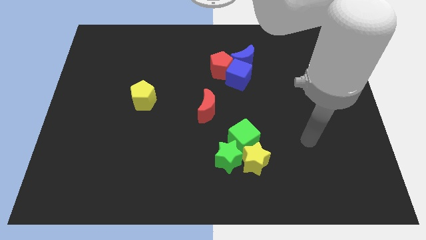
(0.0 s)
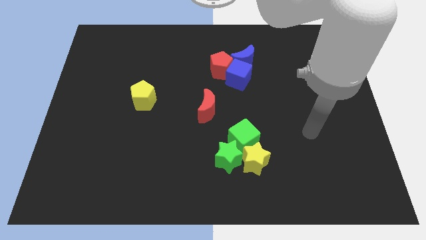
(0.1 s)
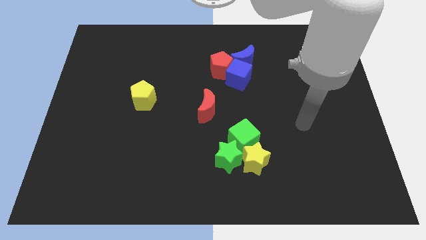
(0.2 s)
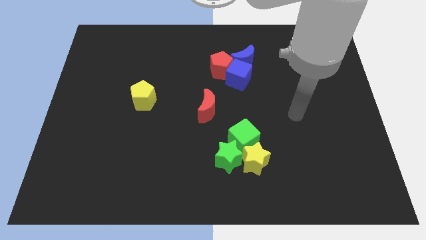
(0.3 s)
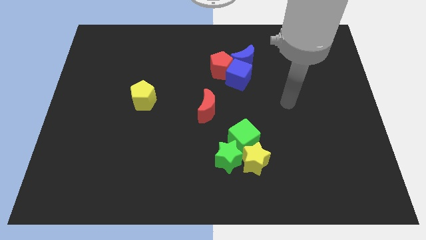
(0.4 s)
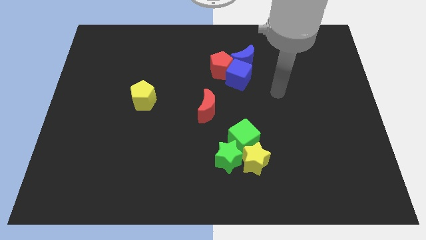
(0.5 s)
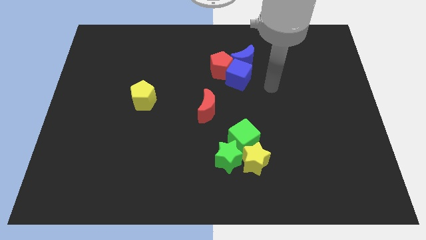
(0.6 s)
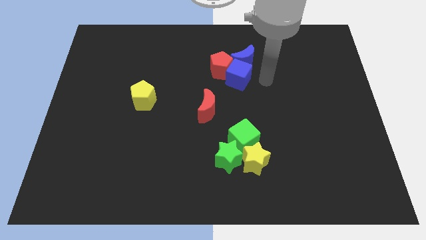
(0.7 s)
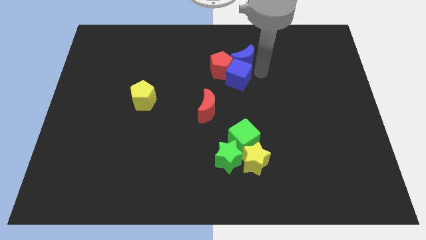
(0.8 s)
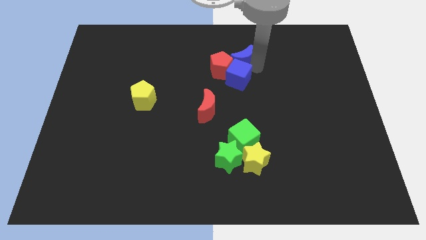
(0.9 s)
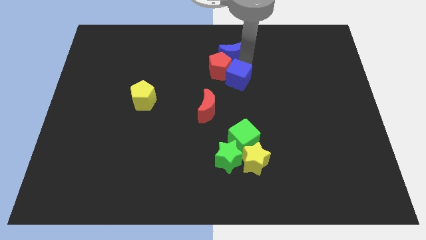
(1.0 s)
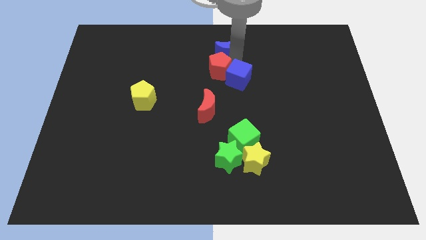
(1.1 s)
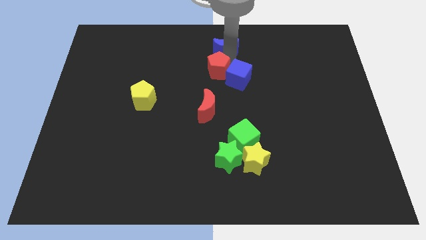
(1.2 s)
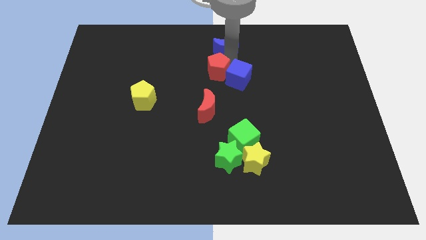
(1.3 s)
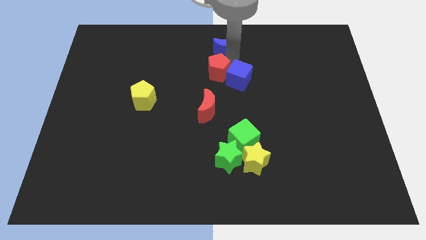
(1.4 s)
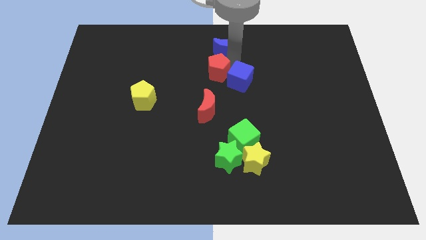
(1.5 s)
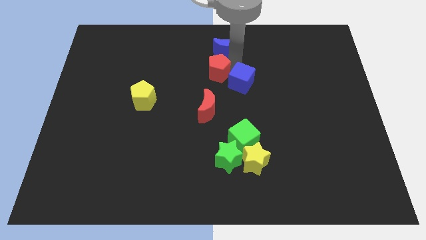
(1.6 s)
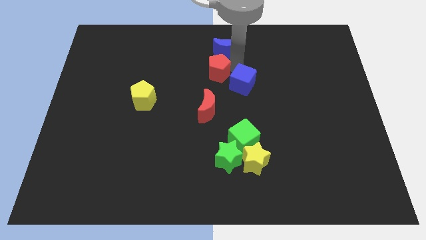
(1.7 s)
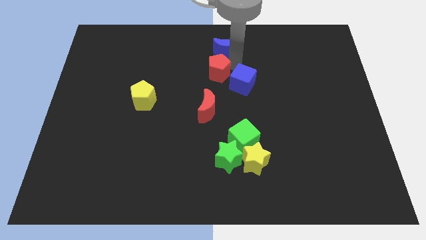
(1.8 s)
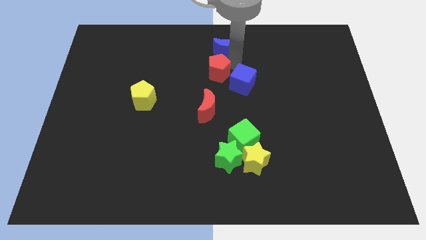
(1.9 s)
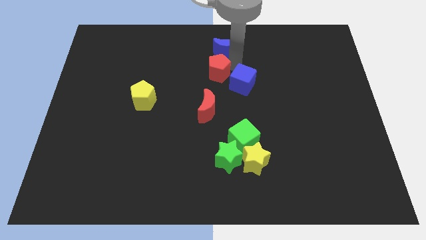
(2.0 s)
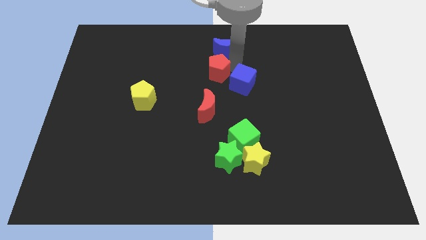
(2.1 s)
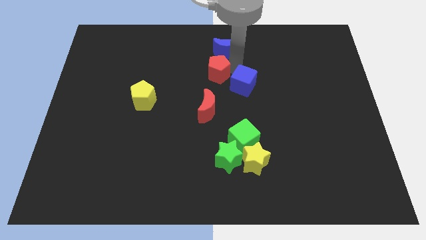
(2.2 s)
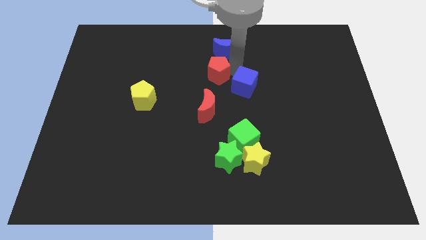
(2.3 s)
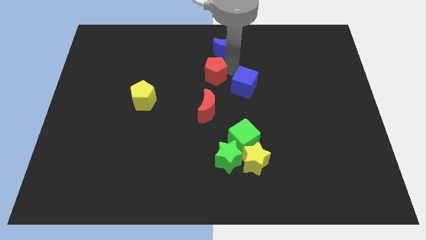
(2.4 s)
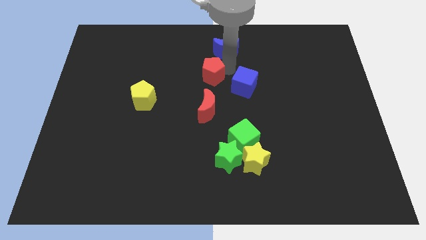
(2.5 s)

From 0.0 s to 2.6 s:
pull the blue cube apart from the red pentagon and blue moon

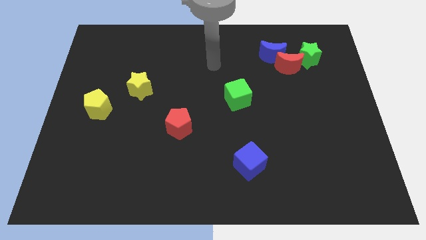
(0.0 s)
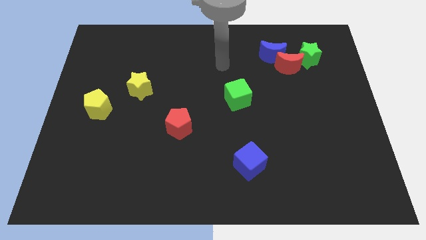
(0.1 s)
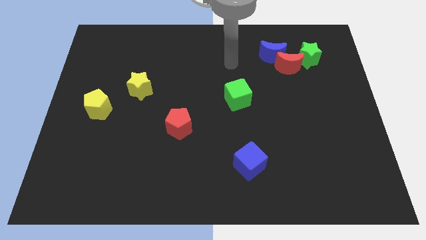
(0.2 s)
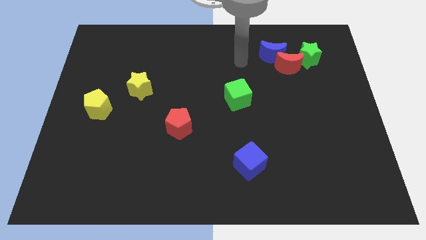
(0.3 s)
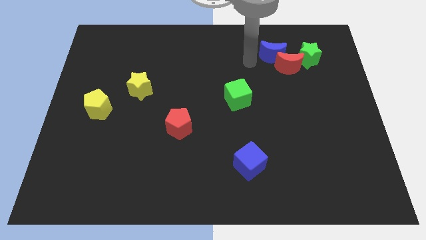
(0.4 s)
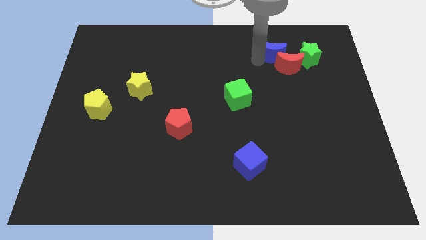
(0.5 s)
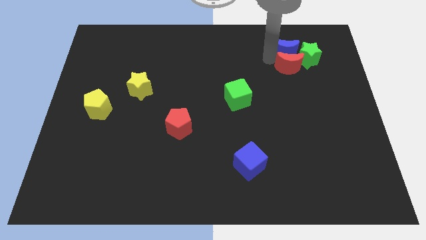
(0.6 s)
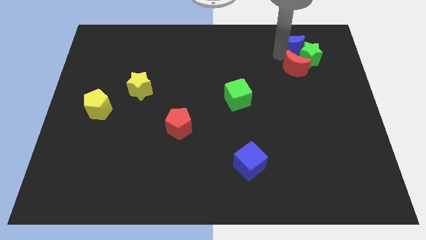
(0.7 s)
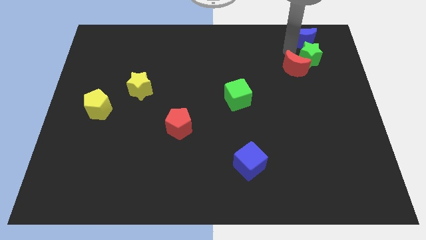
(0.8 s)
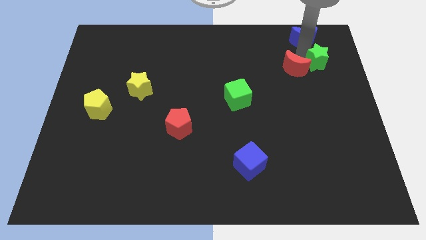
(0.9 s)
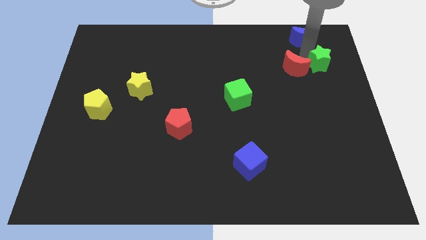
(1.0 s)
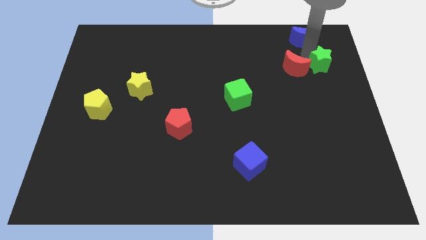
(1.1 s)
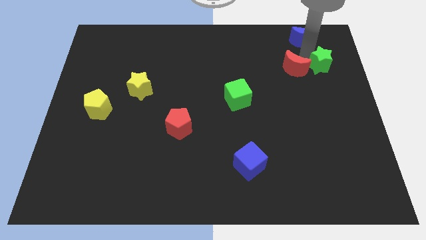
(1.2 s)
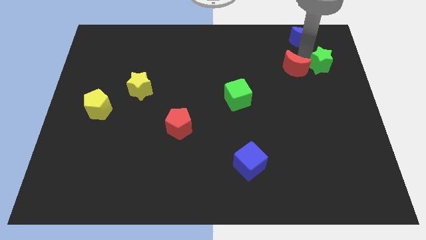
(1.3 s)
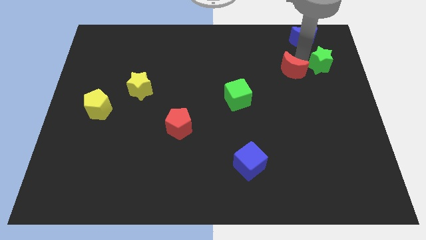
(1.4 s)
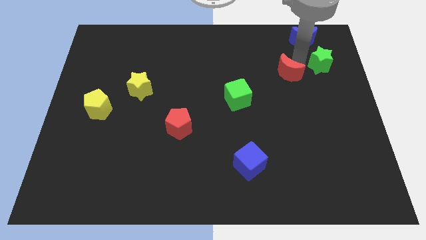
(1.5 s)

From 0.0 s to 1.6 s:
separate the red moon from the blue moon and green star

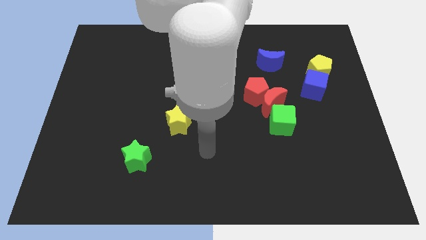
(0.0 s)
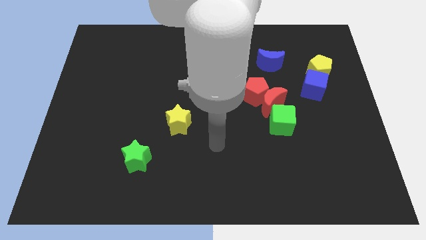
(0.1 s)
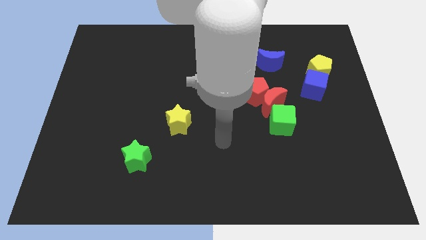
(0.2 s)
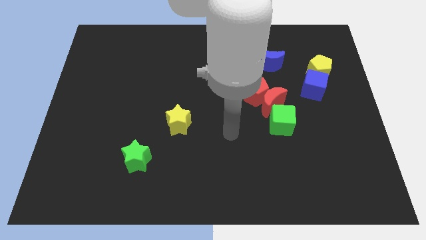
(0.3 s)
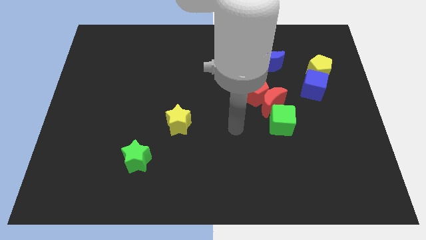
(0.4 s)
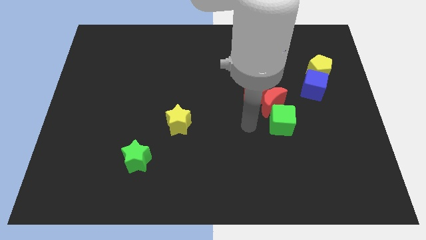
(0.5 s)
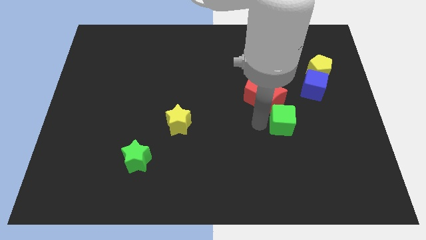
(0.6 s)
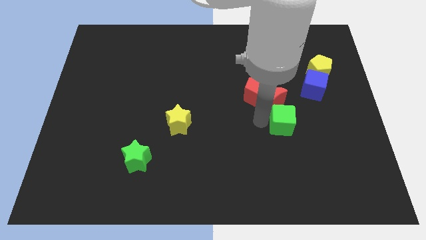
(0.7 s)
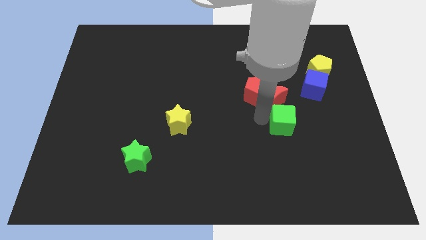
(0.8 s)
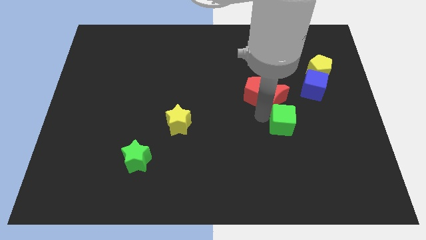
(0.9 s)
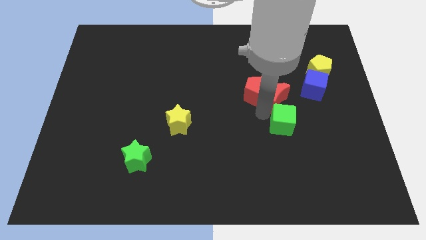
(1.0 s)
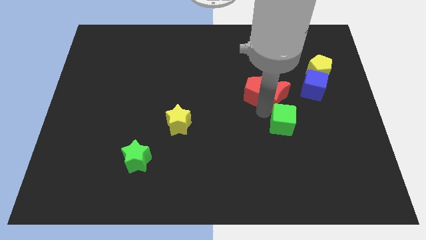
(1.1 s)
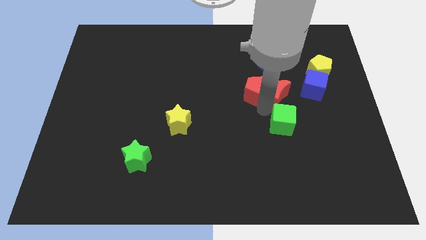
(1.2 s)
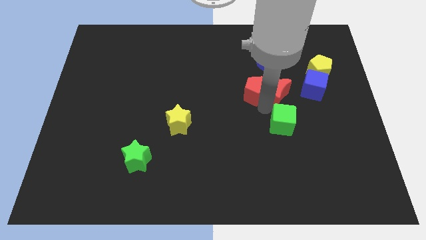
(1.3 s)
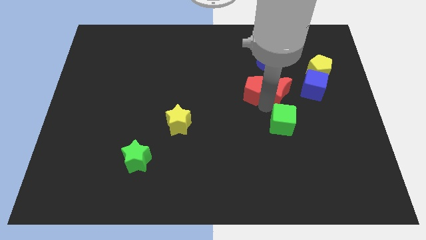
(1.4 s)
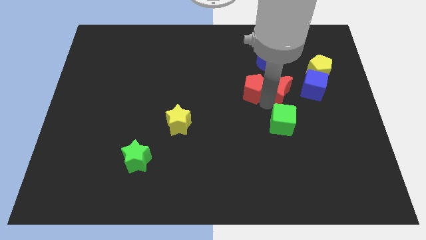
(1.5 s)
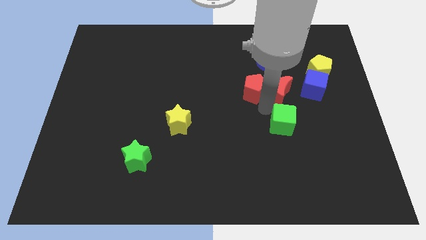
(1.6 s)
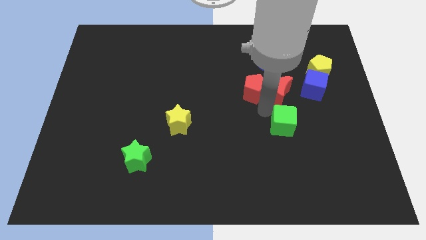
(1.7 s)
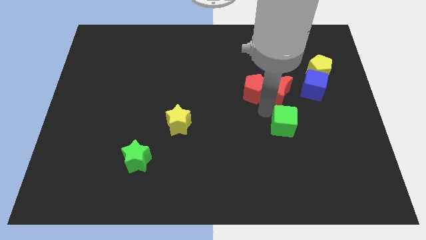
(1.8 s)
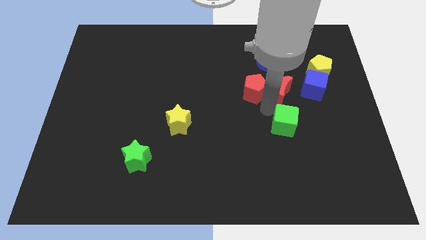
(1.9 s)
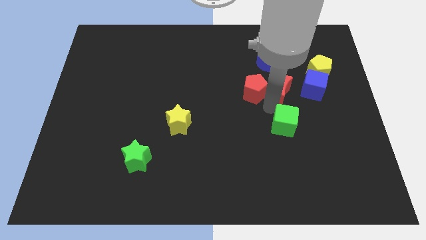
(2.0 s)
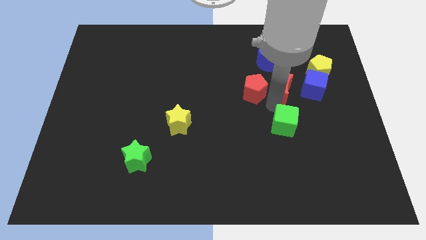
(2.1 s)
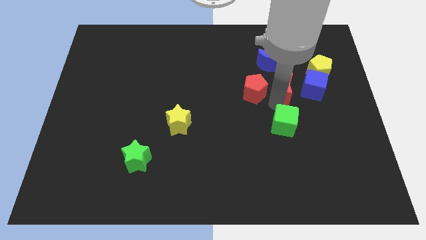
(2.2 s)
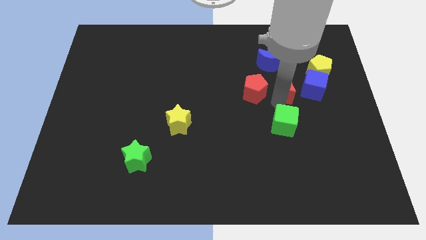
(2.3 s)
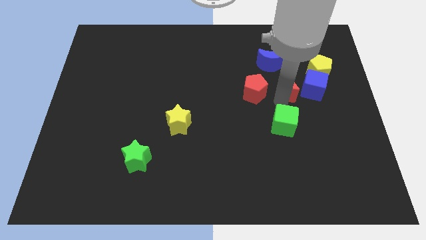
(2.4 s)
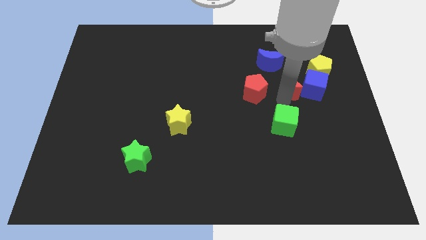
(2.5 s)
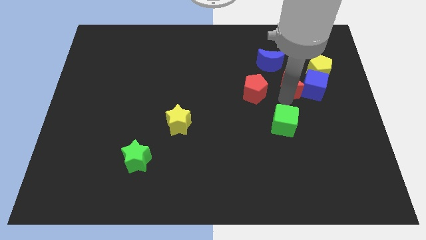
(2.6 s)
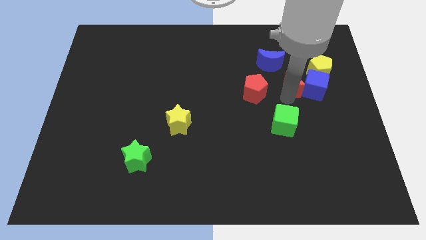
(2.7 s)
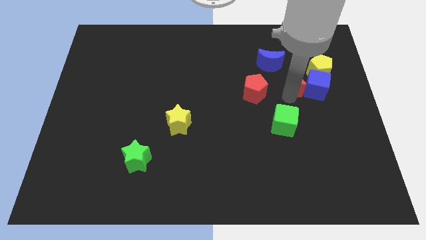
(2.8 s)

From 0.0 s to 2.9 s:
pull the red moon apart from the red pentagon and green cube

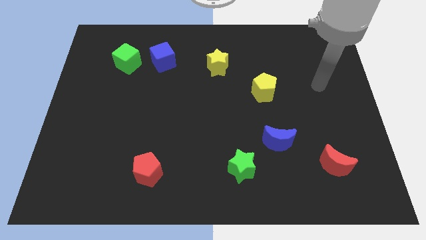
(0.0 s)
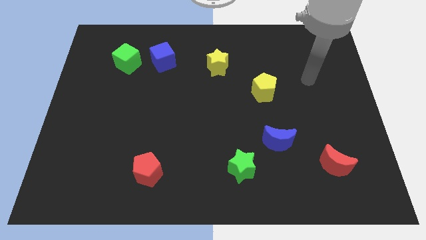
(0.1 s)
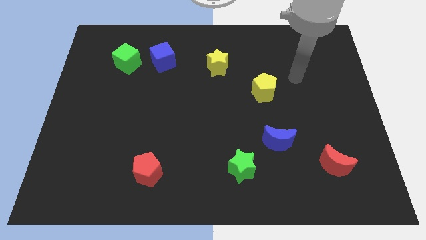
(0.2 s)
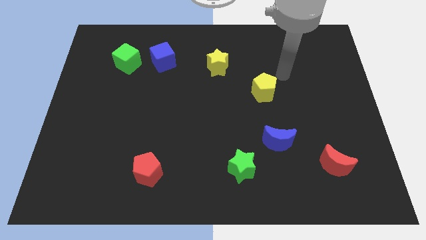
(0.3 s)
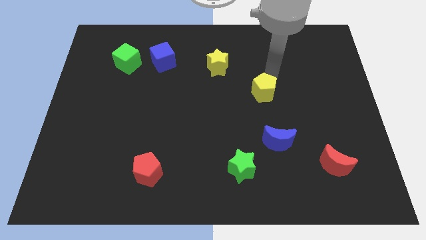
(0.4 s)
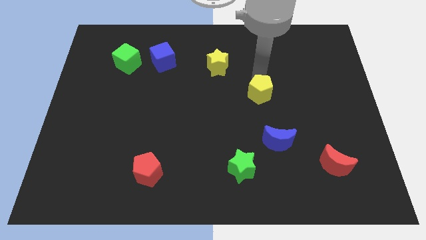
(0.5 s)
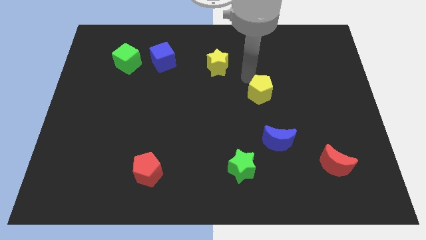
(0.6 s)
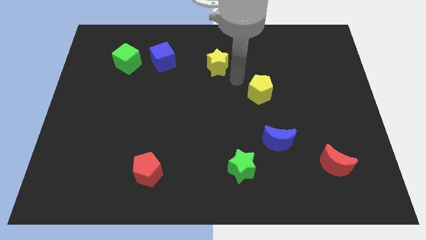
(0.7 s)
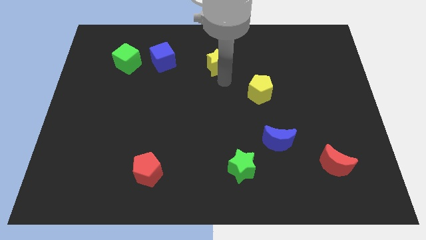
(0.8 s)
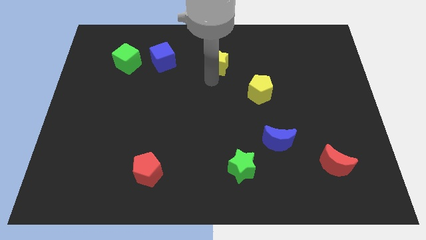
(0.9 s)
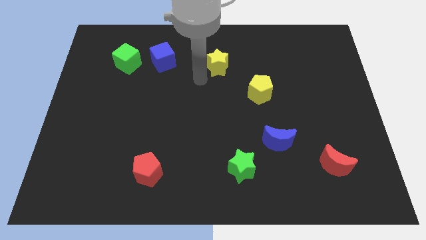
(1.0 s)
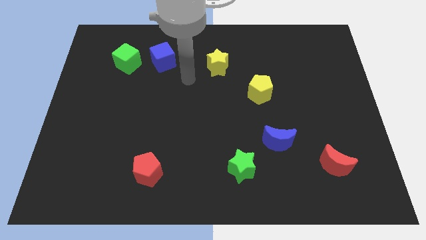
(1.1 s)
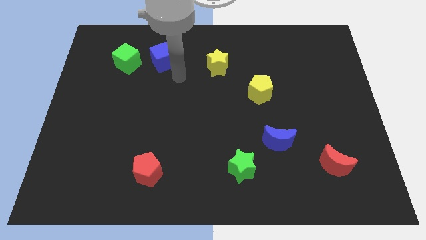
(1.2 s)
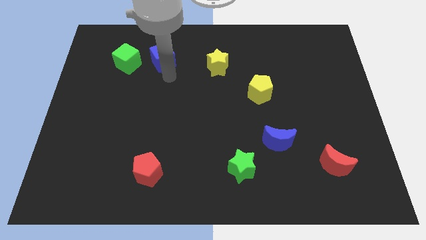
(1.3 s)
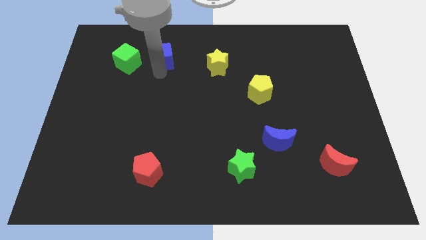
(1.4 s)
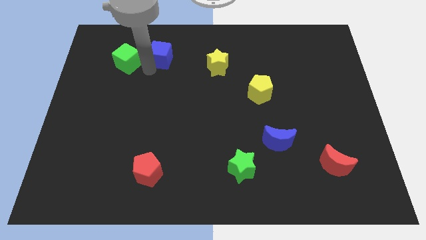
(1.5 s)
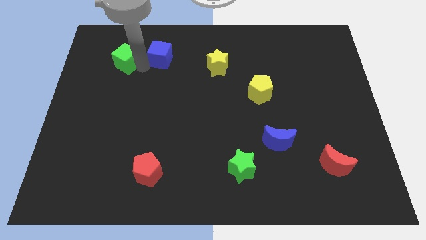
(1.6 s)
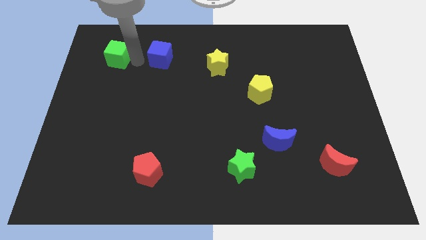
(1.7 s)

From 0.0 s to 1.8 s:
pull the blue cube apart from the green cube

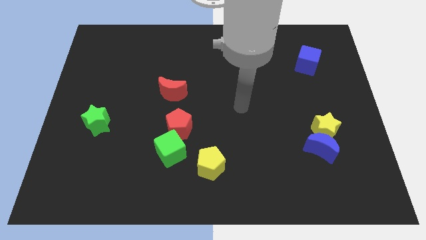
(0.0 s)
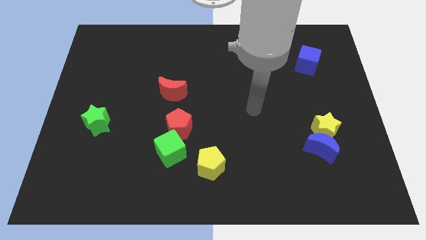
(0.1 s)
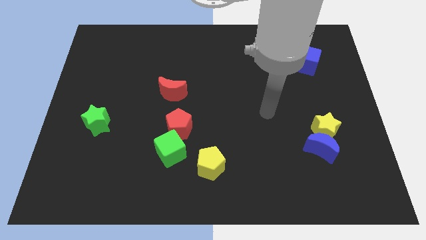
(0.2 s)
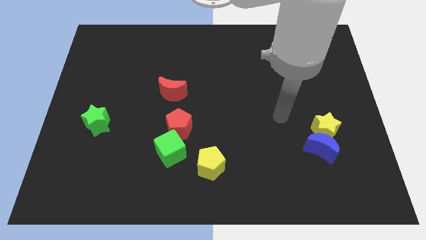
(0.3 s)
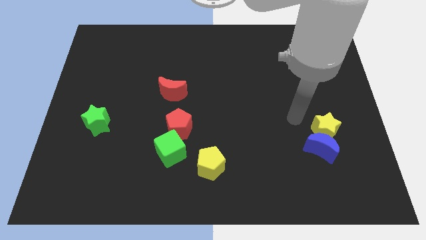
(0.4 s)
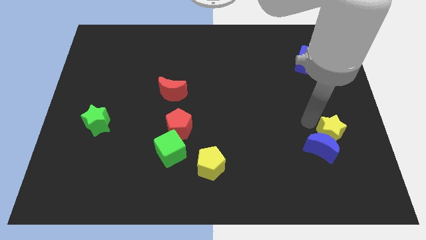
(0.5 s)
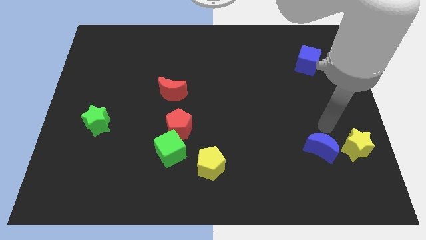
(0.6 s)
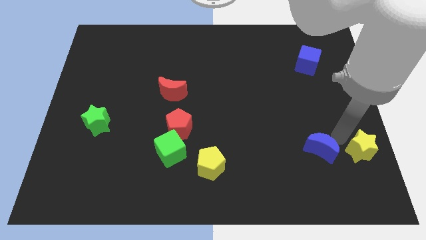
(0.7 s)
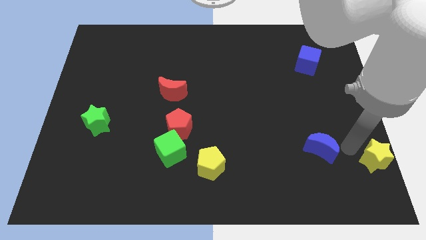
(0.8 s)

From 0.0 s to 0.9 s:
pull the blue moon apart from the yellow star